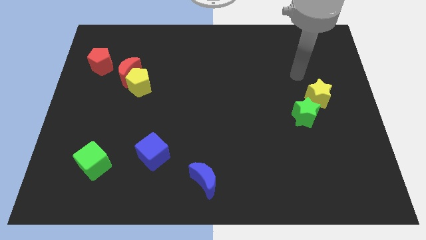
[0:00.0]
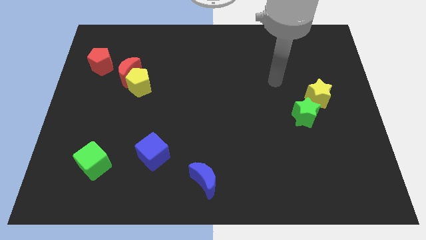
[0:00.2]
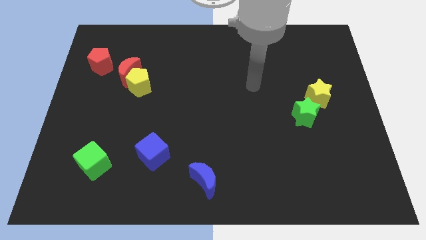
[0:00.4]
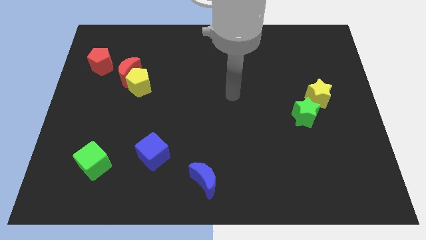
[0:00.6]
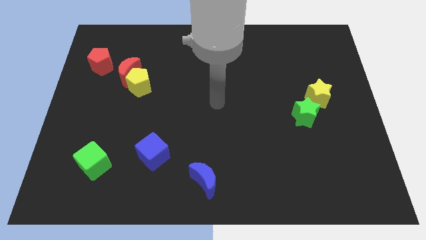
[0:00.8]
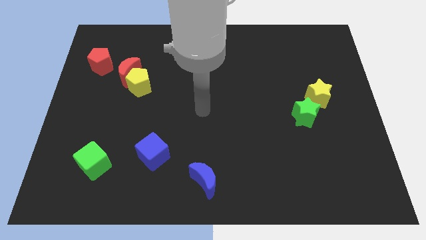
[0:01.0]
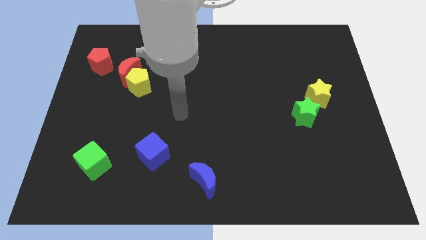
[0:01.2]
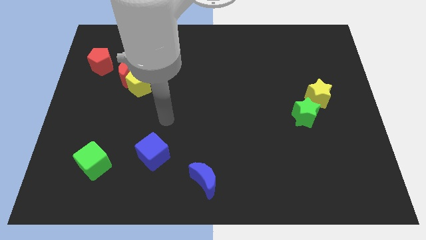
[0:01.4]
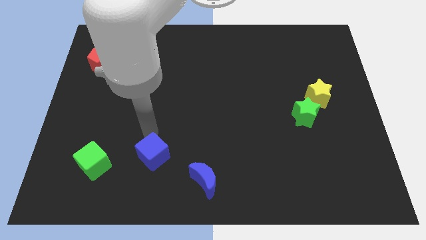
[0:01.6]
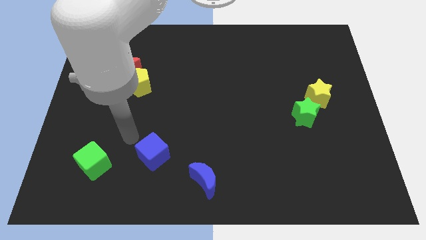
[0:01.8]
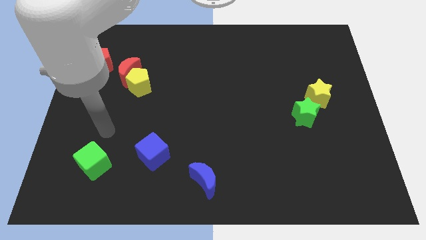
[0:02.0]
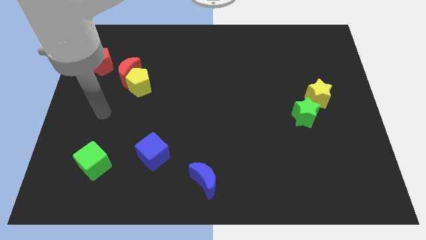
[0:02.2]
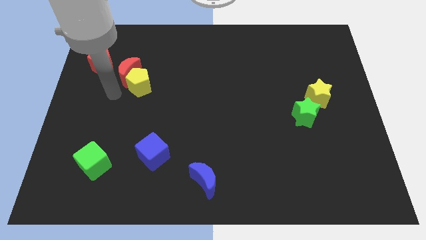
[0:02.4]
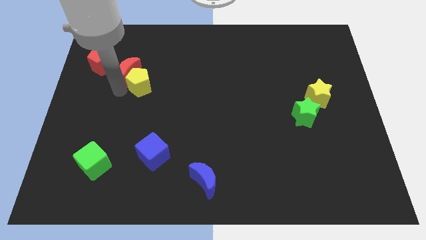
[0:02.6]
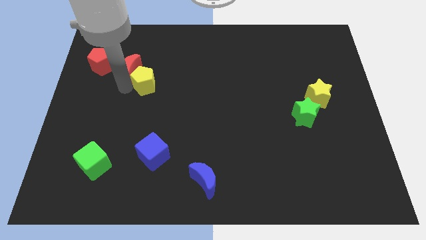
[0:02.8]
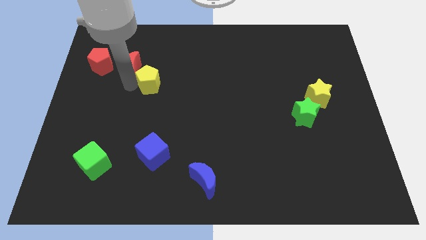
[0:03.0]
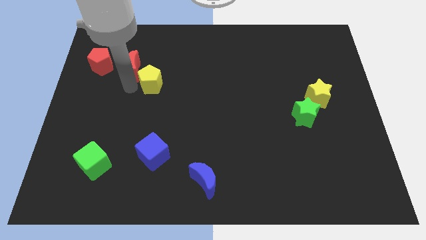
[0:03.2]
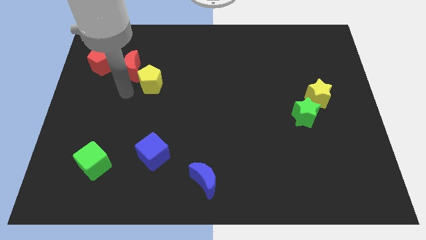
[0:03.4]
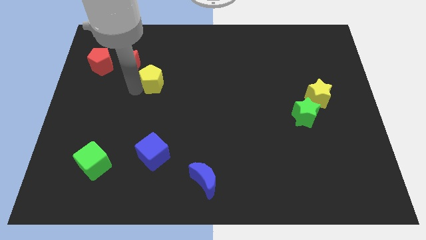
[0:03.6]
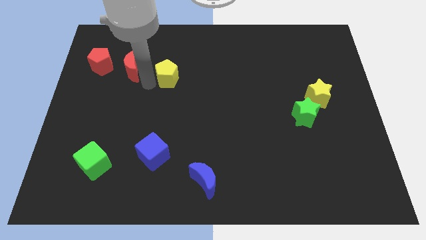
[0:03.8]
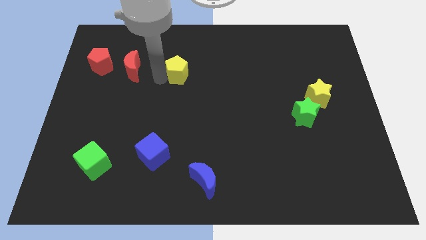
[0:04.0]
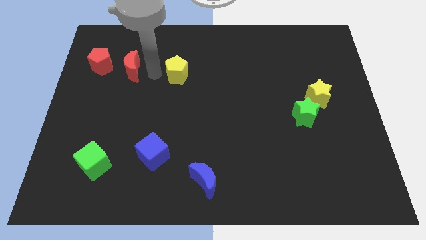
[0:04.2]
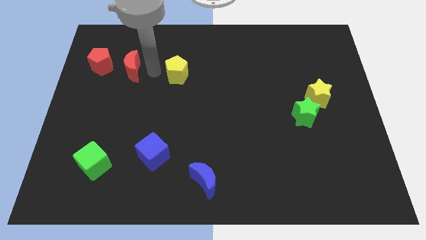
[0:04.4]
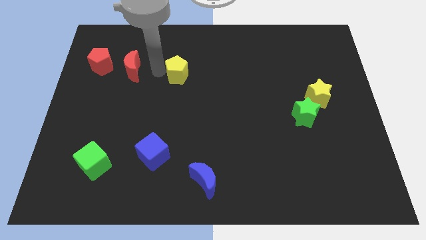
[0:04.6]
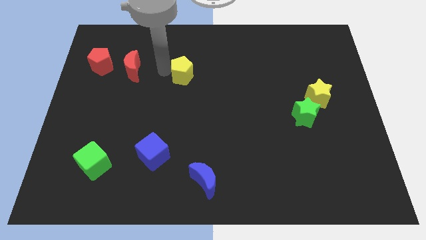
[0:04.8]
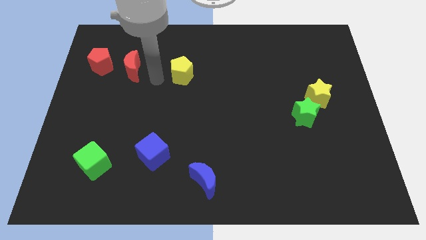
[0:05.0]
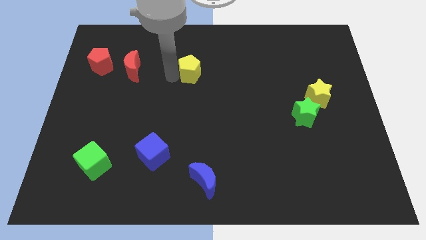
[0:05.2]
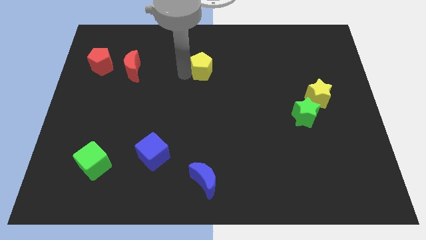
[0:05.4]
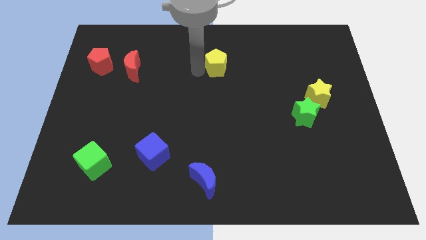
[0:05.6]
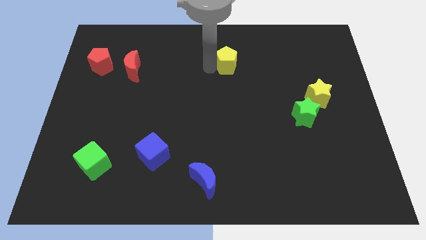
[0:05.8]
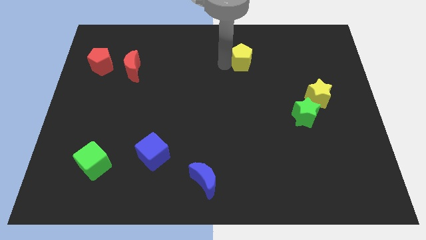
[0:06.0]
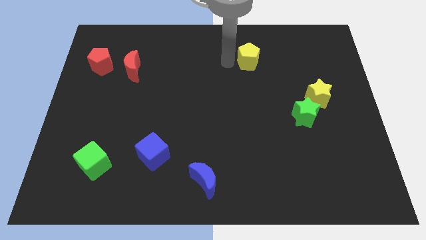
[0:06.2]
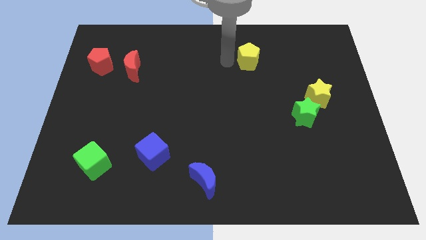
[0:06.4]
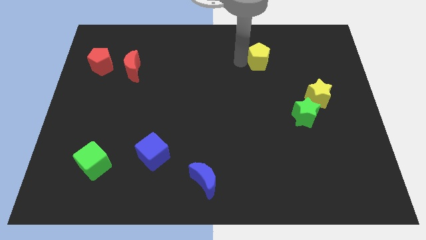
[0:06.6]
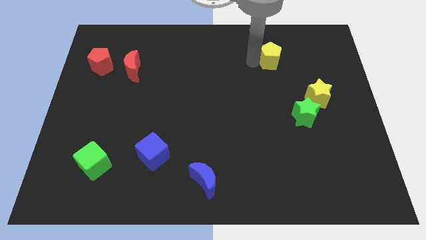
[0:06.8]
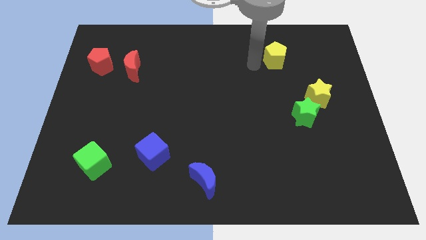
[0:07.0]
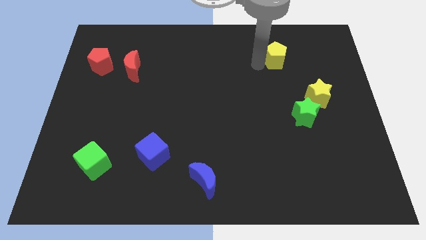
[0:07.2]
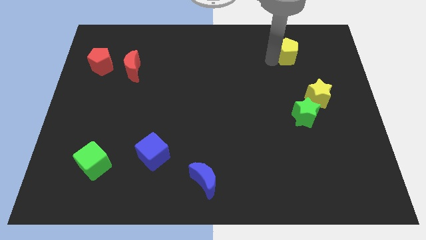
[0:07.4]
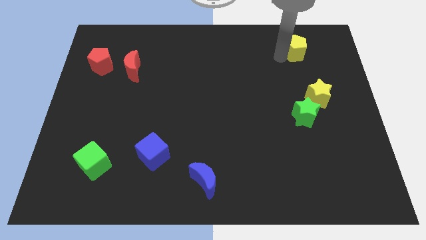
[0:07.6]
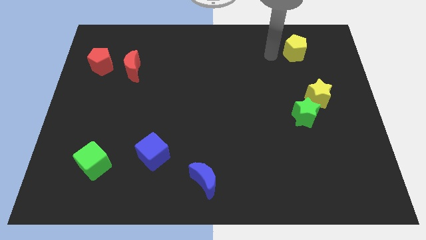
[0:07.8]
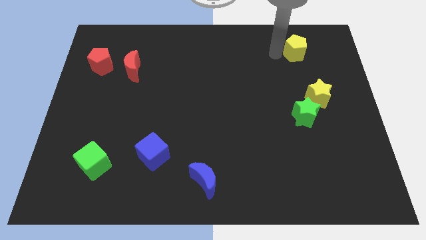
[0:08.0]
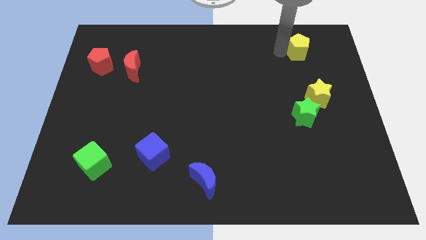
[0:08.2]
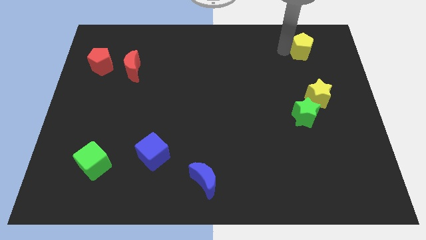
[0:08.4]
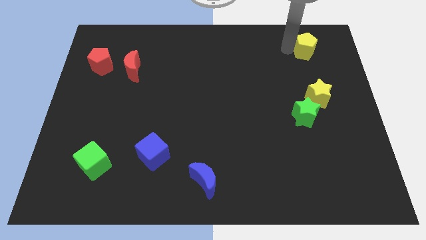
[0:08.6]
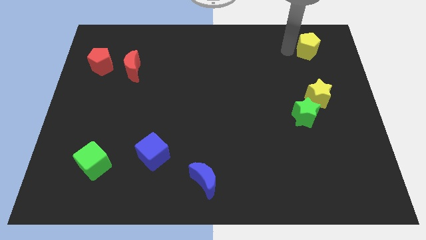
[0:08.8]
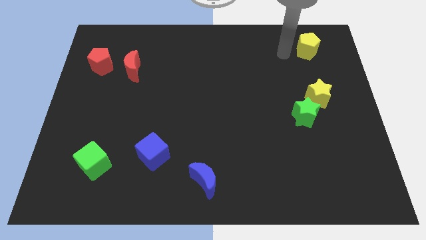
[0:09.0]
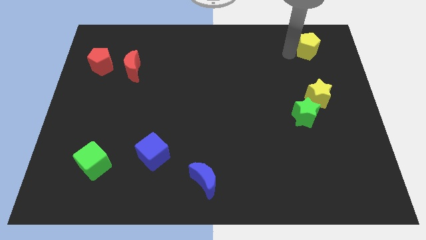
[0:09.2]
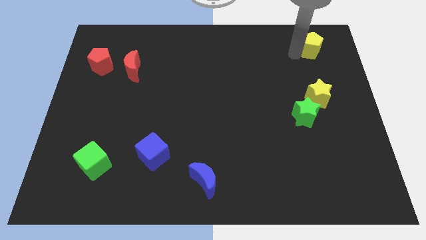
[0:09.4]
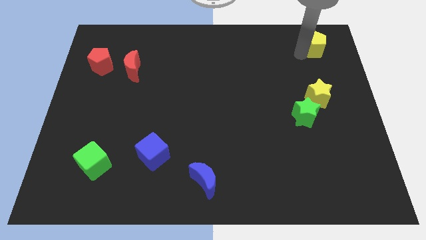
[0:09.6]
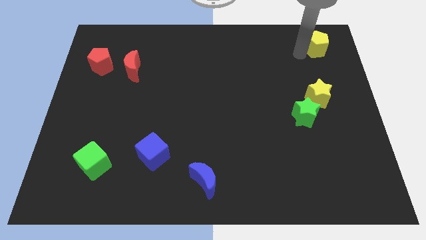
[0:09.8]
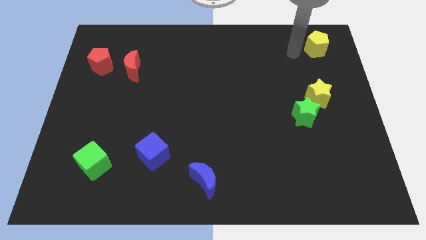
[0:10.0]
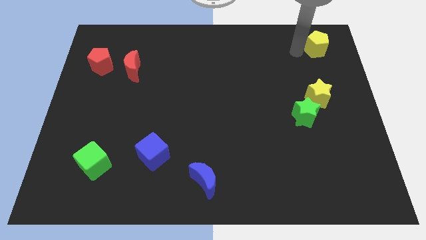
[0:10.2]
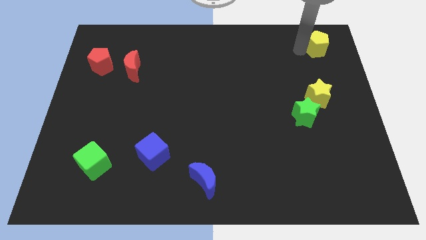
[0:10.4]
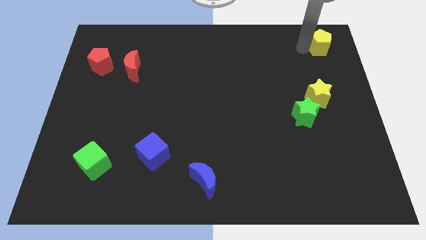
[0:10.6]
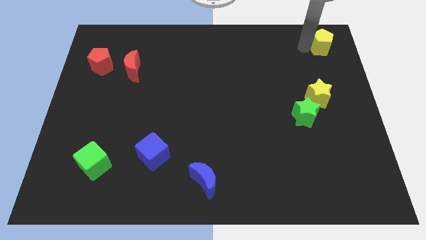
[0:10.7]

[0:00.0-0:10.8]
put the yellow pentagon to the upper right corner

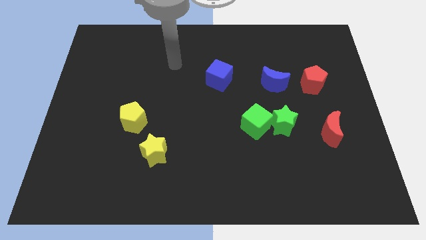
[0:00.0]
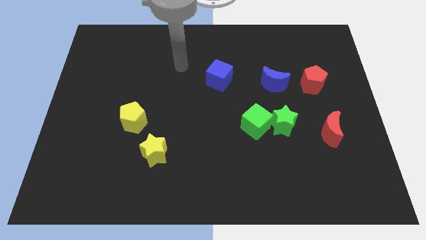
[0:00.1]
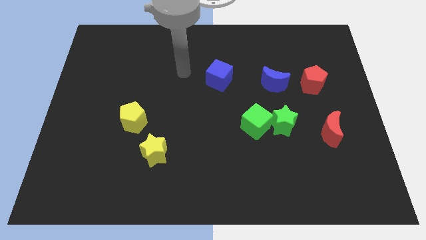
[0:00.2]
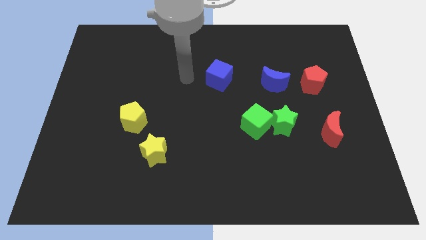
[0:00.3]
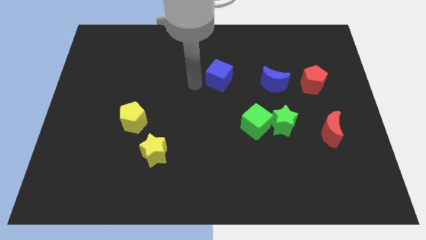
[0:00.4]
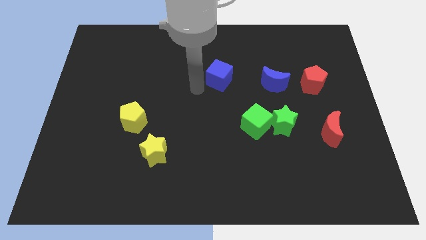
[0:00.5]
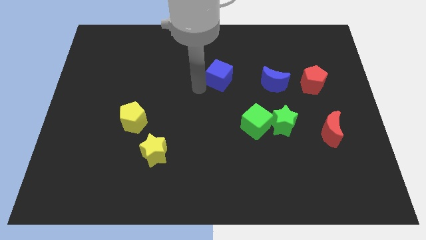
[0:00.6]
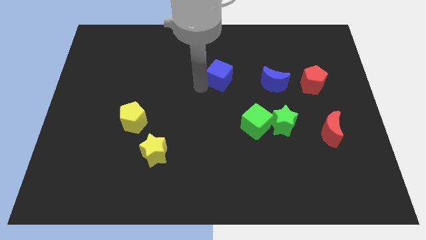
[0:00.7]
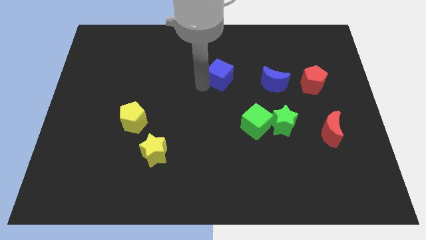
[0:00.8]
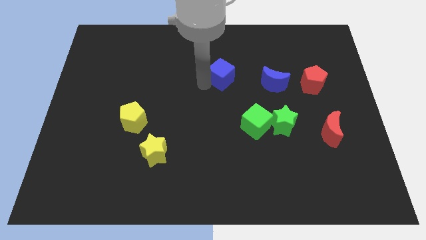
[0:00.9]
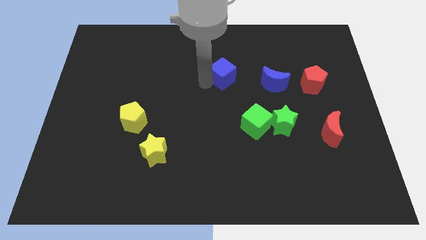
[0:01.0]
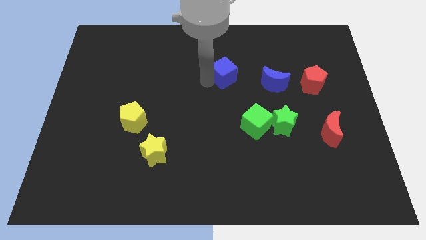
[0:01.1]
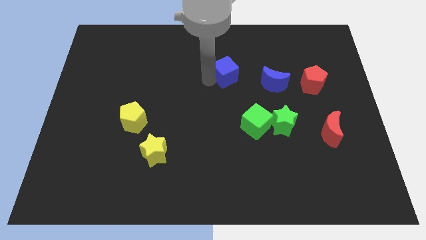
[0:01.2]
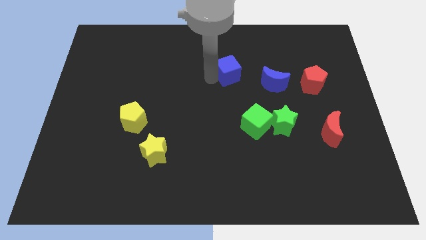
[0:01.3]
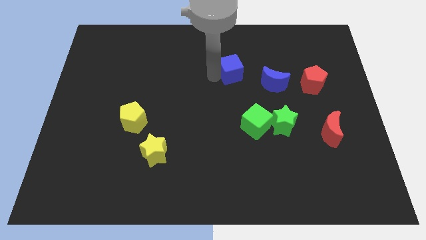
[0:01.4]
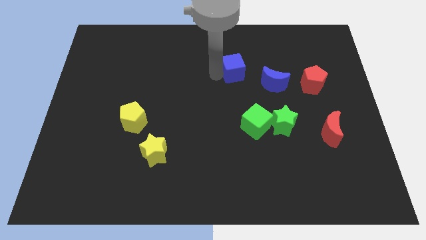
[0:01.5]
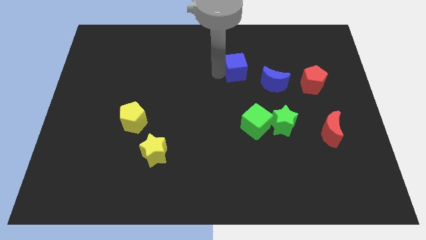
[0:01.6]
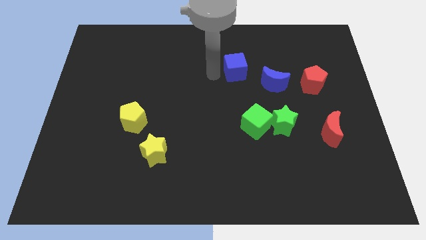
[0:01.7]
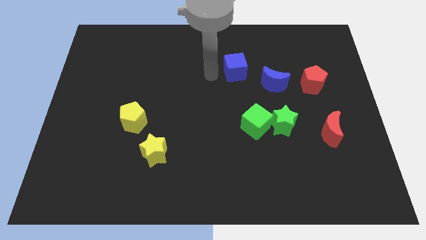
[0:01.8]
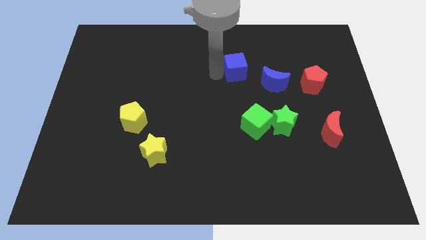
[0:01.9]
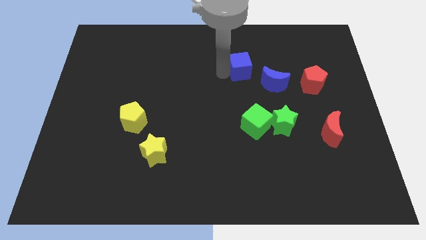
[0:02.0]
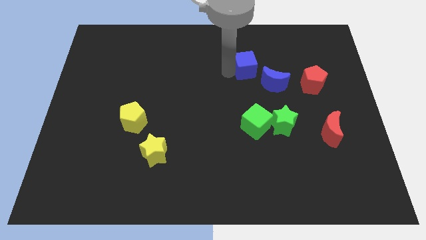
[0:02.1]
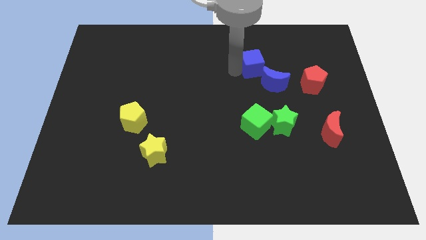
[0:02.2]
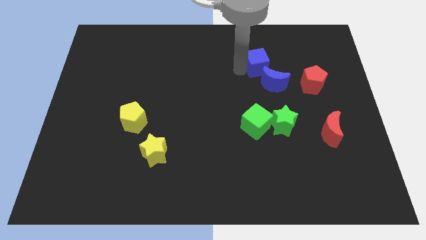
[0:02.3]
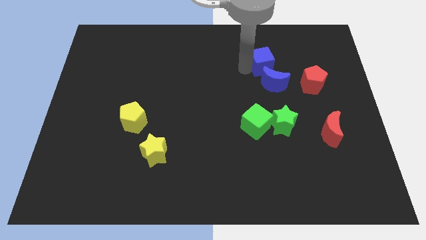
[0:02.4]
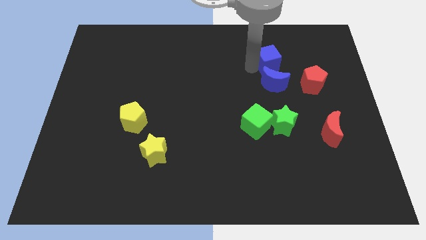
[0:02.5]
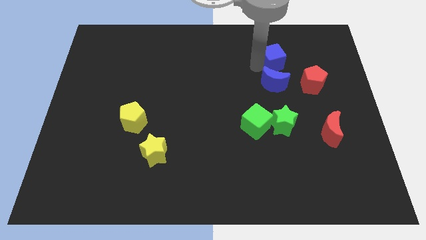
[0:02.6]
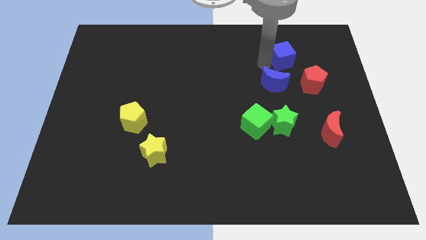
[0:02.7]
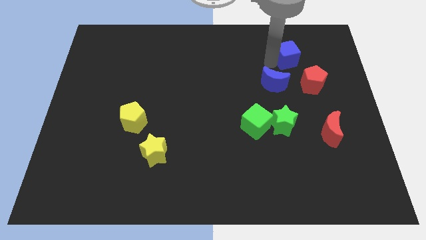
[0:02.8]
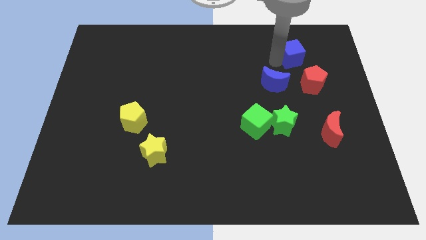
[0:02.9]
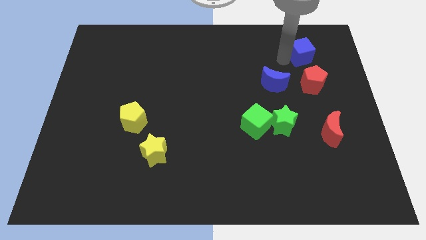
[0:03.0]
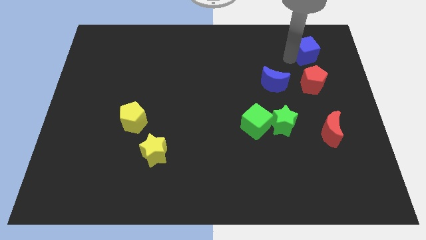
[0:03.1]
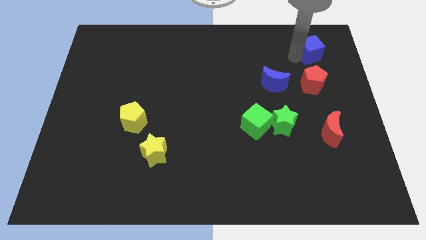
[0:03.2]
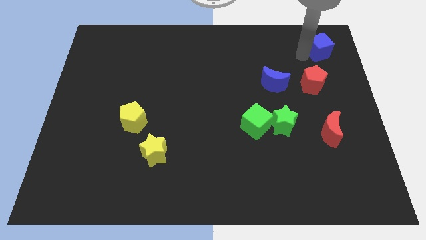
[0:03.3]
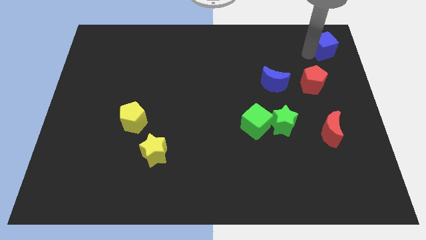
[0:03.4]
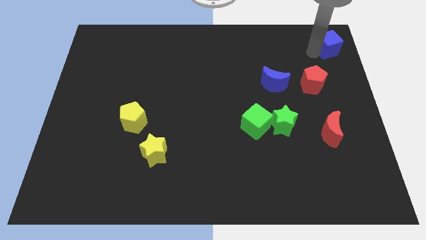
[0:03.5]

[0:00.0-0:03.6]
slide the blue cube to the top right of the board
